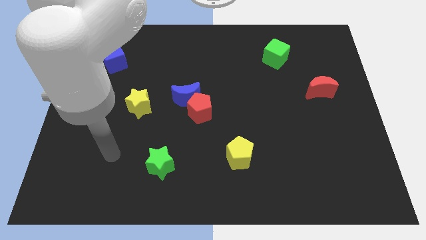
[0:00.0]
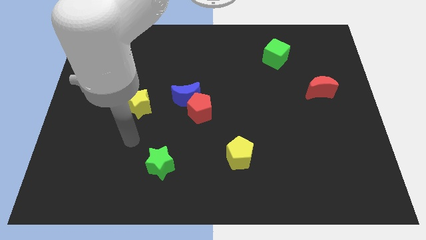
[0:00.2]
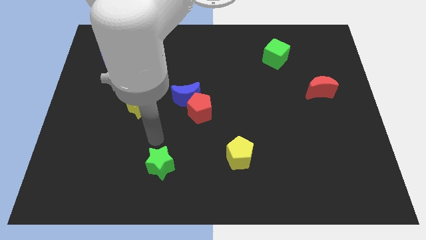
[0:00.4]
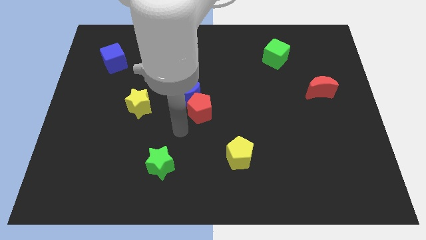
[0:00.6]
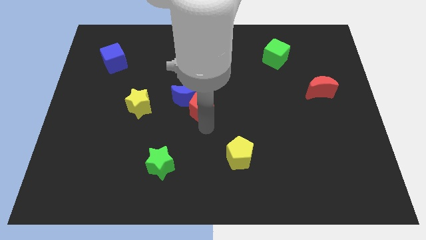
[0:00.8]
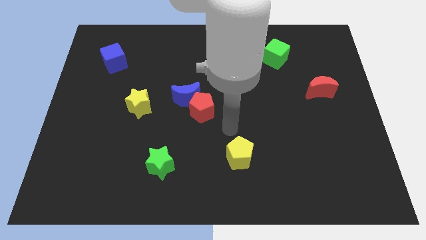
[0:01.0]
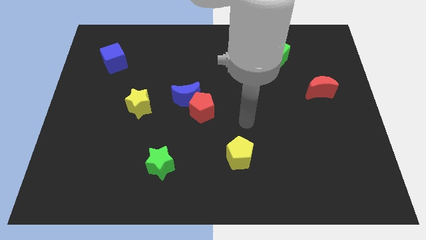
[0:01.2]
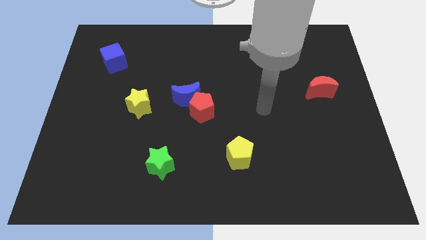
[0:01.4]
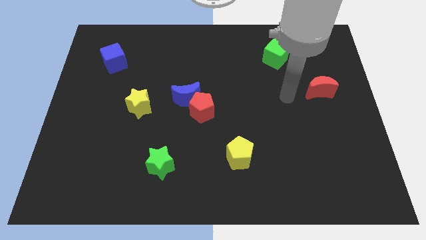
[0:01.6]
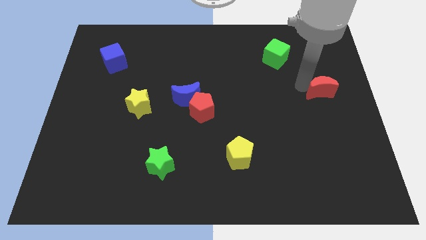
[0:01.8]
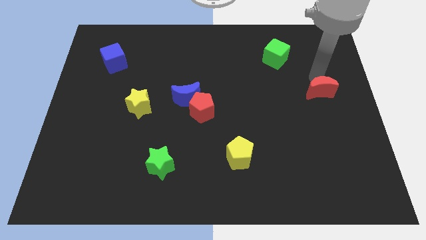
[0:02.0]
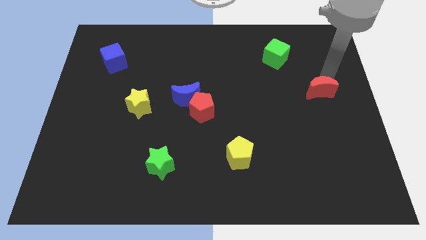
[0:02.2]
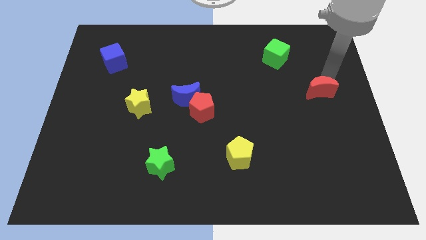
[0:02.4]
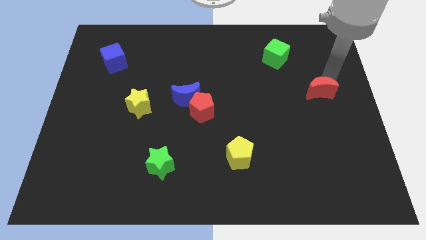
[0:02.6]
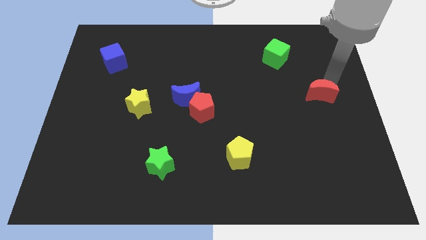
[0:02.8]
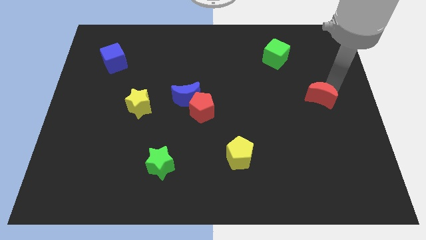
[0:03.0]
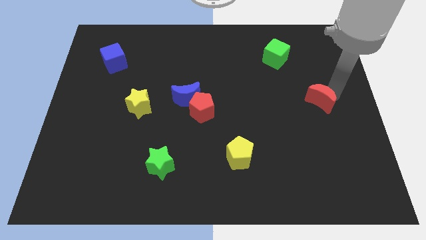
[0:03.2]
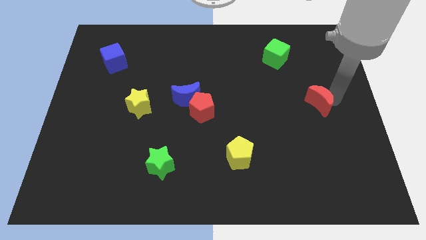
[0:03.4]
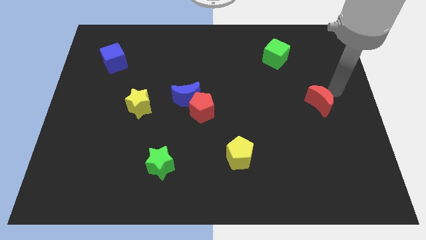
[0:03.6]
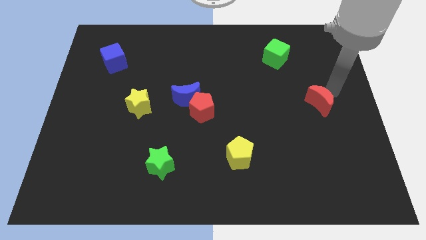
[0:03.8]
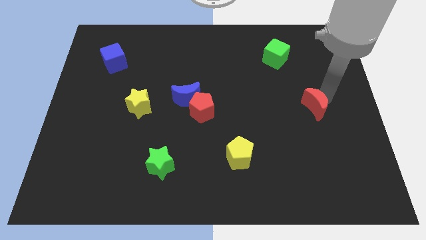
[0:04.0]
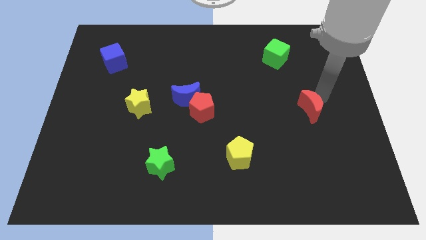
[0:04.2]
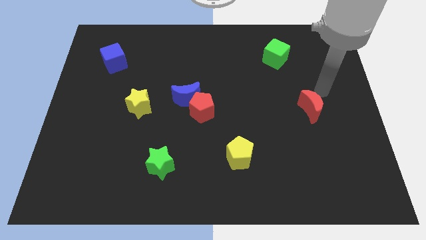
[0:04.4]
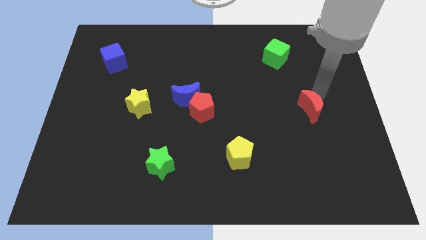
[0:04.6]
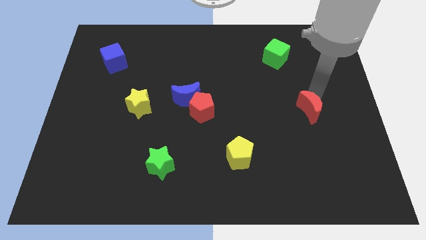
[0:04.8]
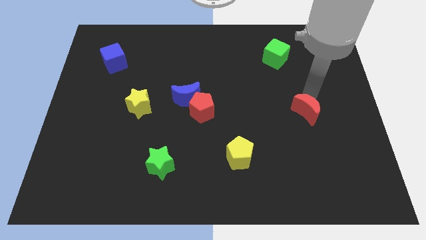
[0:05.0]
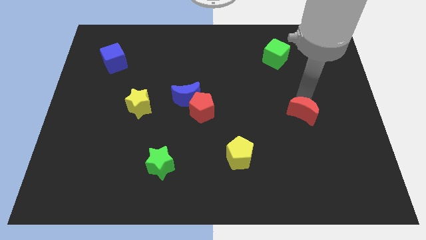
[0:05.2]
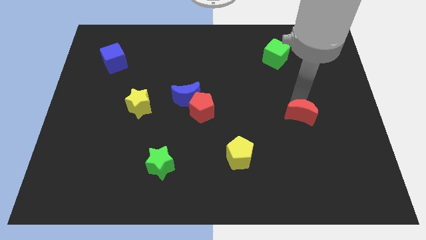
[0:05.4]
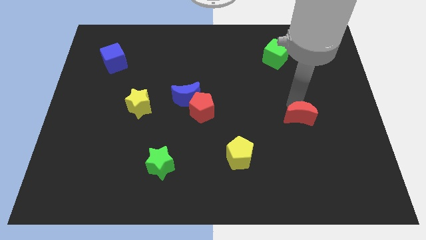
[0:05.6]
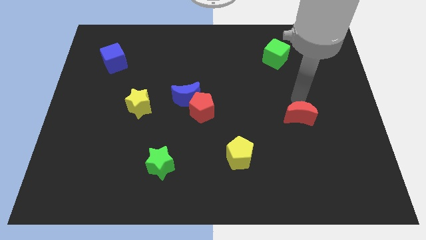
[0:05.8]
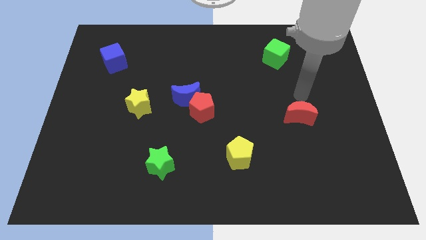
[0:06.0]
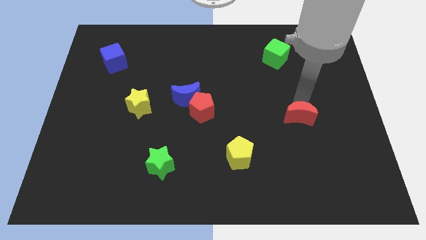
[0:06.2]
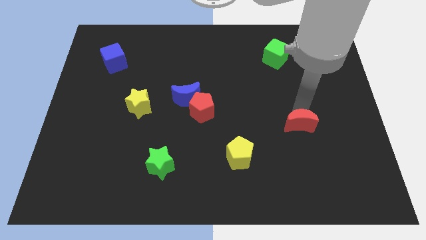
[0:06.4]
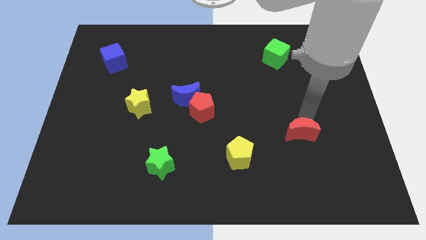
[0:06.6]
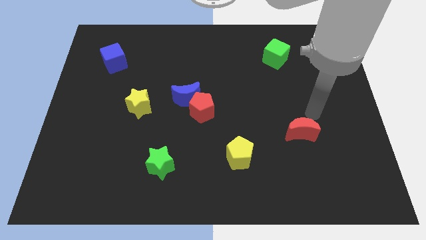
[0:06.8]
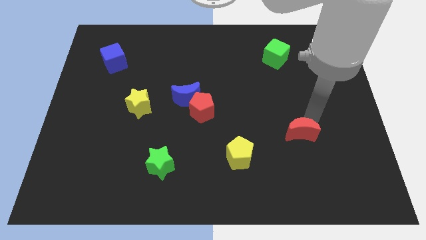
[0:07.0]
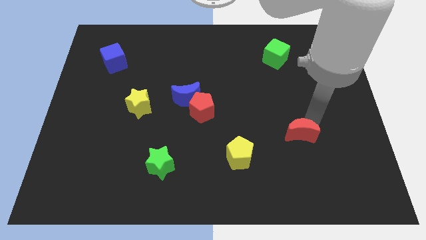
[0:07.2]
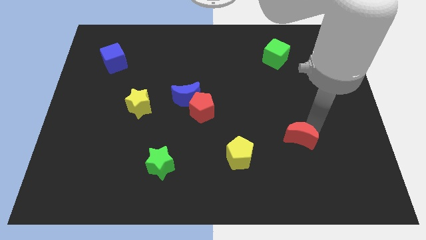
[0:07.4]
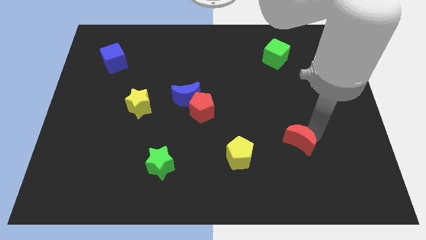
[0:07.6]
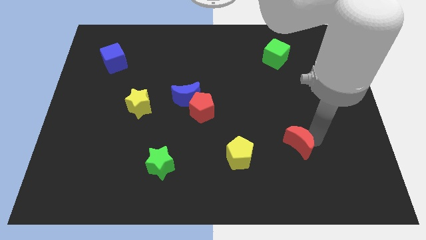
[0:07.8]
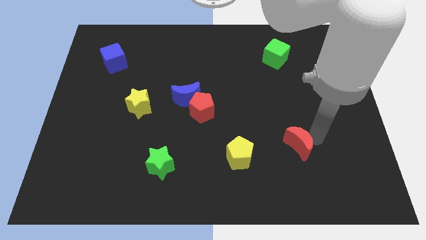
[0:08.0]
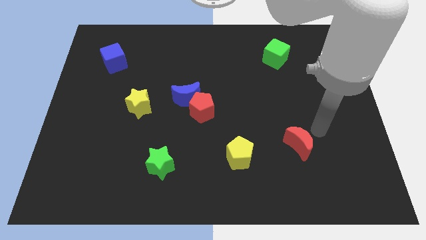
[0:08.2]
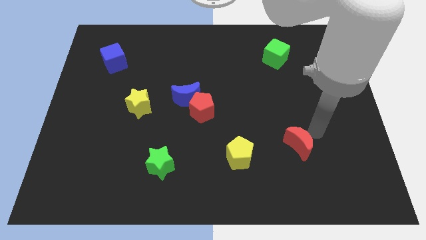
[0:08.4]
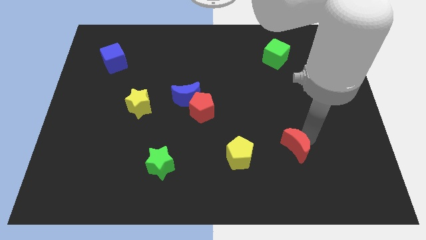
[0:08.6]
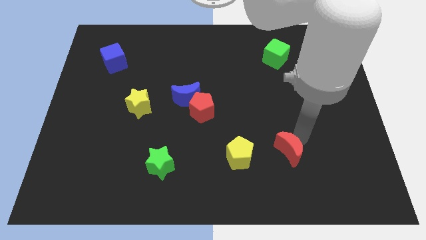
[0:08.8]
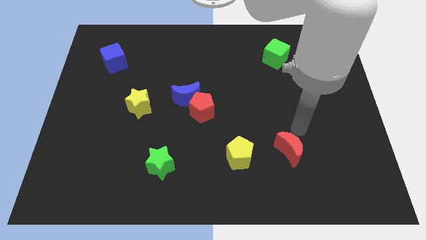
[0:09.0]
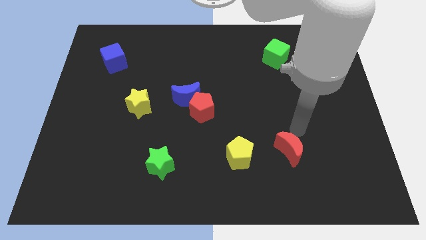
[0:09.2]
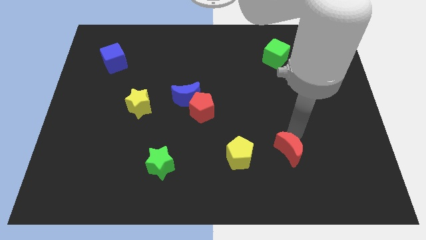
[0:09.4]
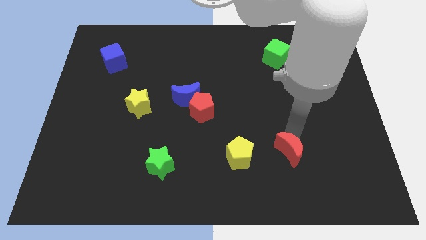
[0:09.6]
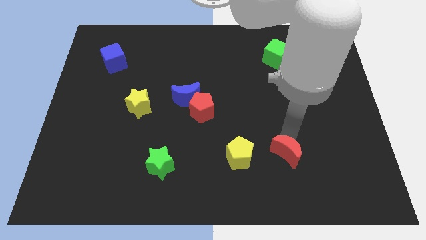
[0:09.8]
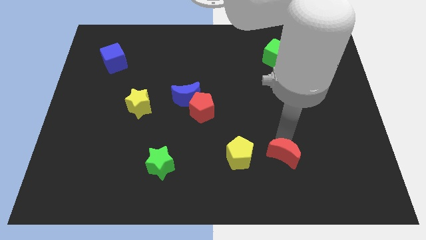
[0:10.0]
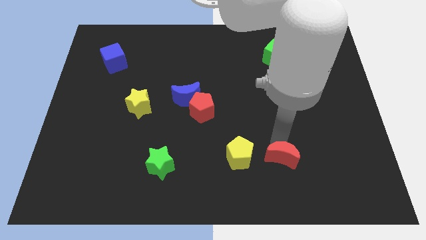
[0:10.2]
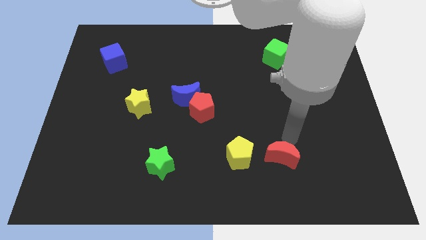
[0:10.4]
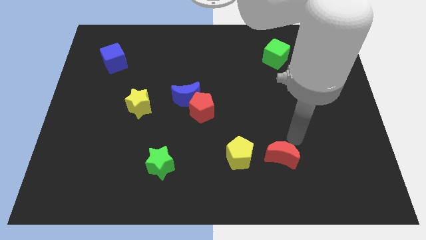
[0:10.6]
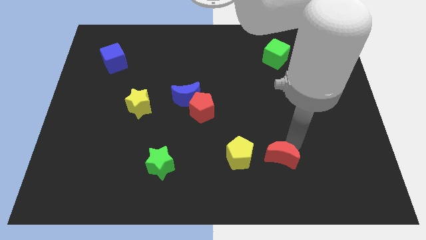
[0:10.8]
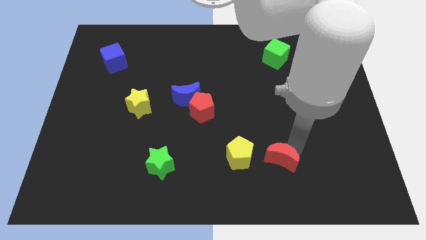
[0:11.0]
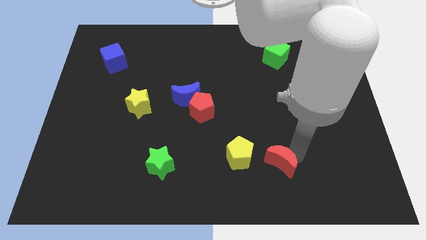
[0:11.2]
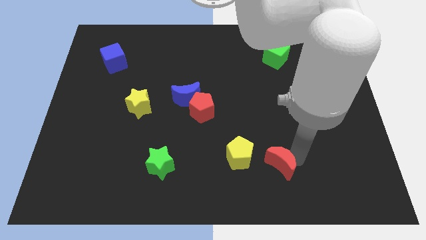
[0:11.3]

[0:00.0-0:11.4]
move the red moon to the bottom right side of the yellow pentagon

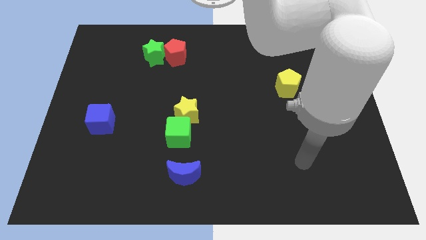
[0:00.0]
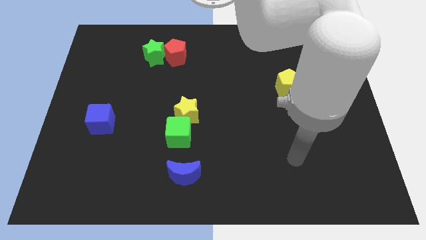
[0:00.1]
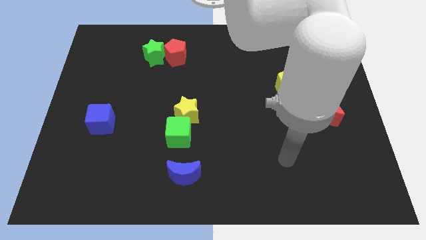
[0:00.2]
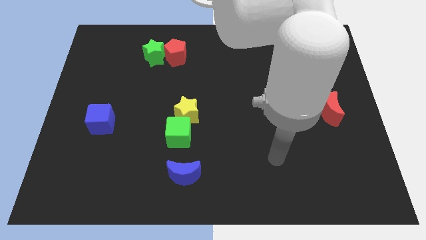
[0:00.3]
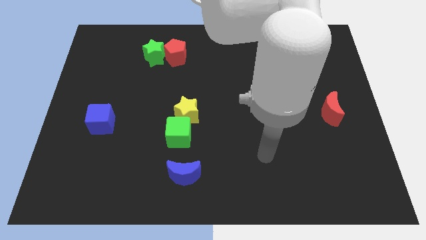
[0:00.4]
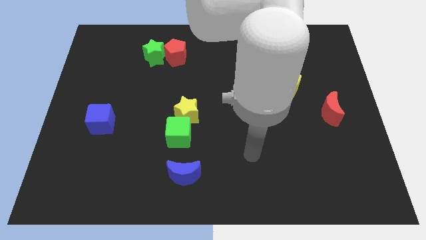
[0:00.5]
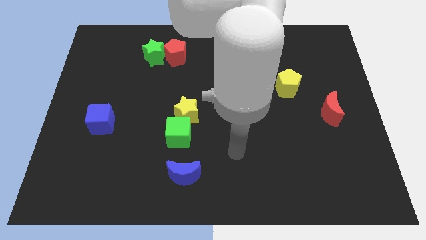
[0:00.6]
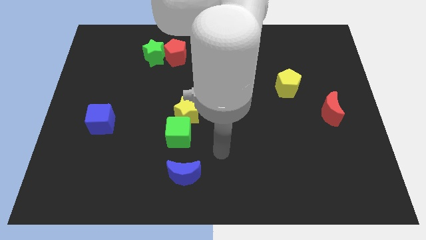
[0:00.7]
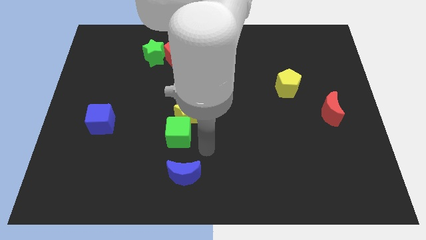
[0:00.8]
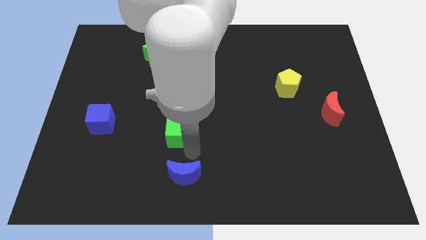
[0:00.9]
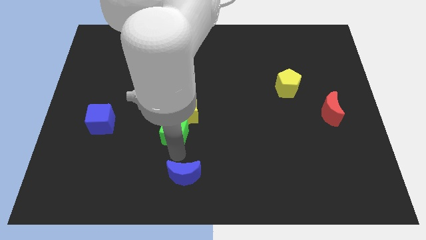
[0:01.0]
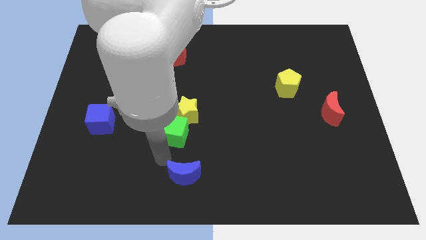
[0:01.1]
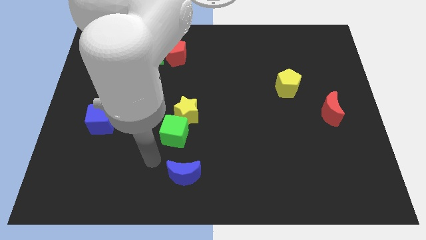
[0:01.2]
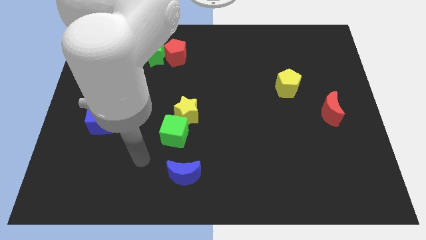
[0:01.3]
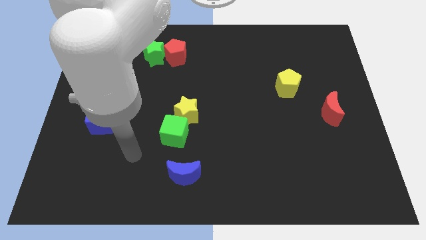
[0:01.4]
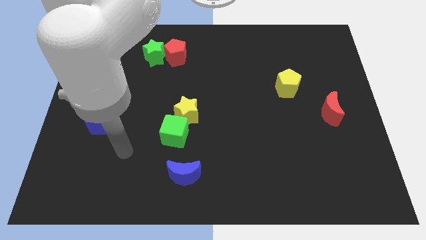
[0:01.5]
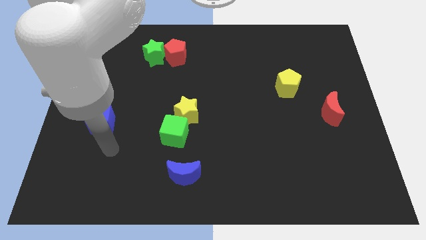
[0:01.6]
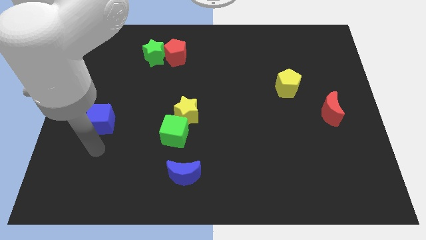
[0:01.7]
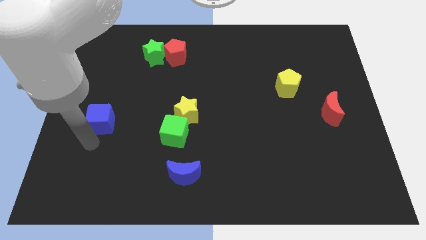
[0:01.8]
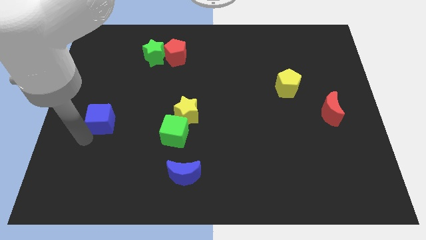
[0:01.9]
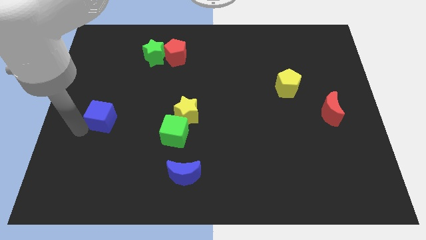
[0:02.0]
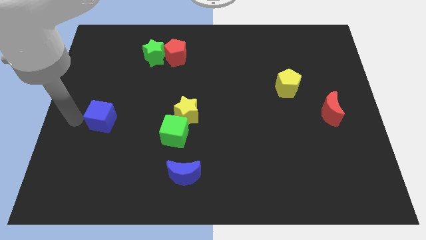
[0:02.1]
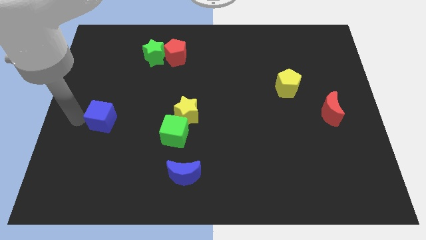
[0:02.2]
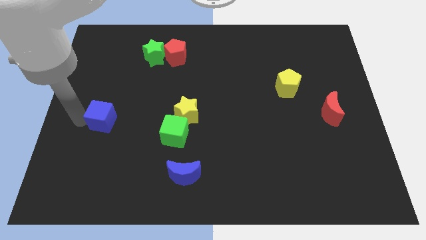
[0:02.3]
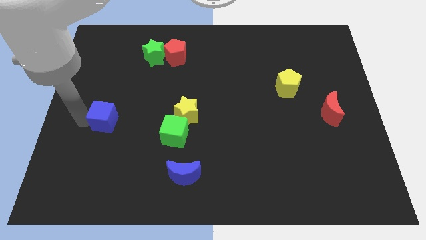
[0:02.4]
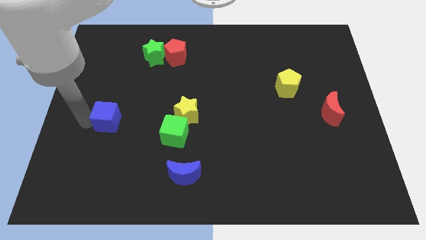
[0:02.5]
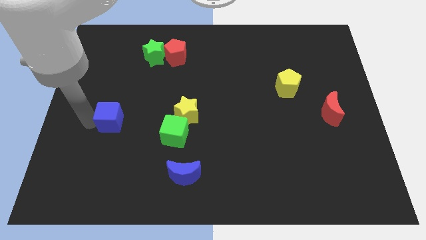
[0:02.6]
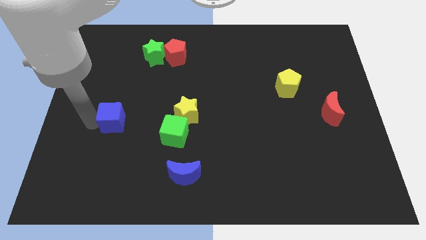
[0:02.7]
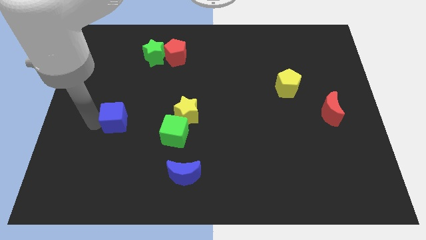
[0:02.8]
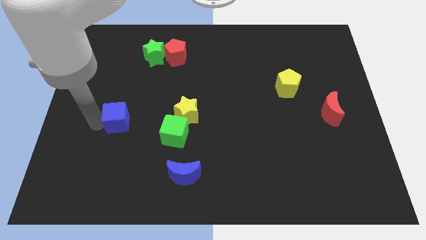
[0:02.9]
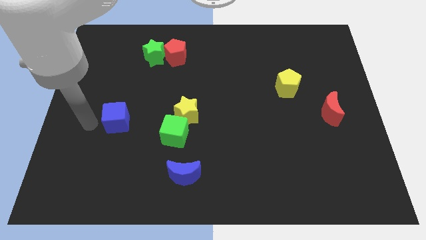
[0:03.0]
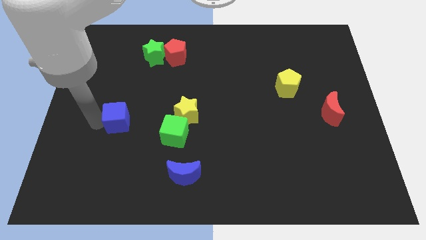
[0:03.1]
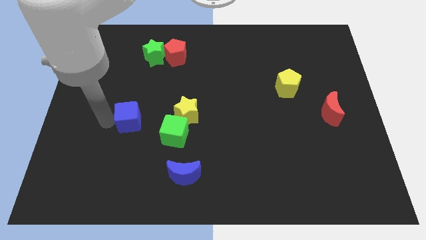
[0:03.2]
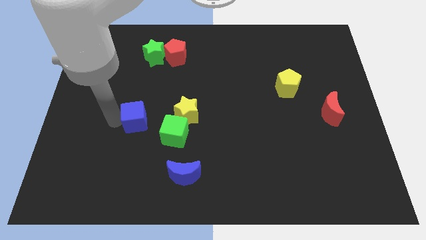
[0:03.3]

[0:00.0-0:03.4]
move the blue cube to the top left of the green cube
